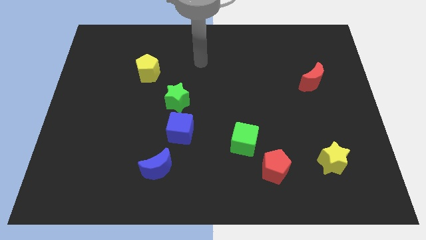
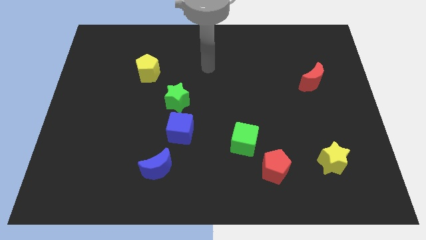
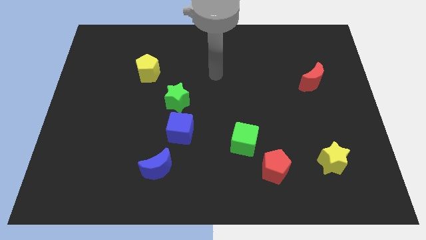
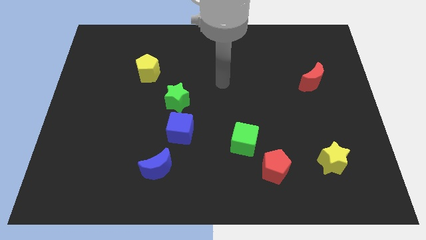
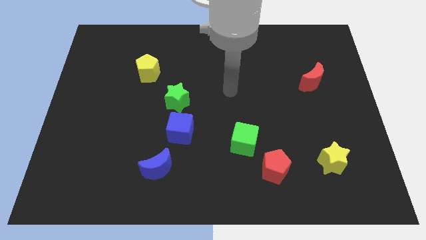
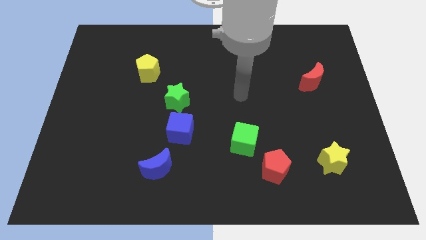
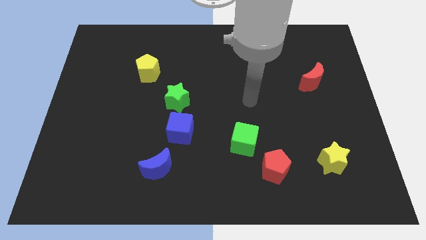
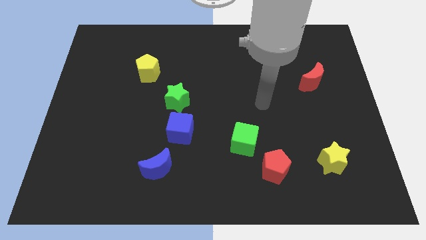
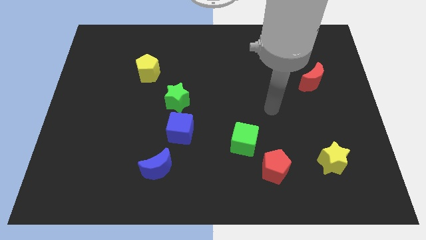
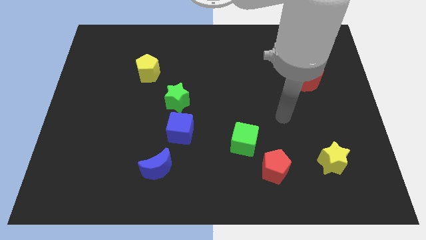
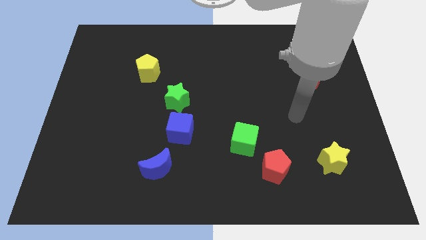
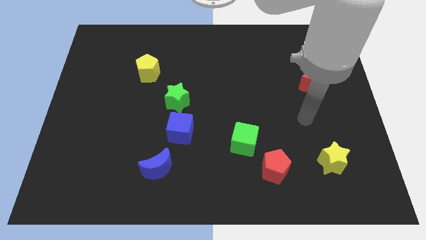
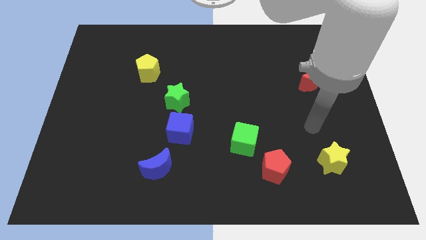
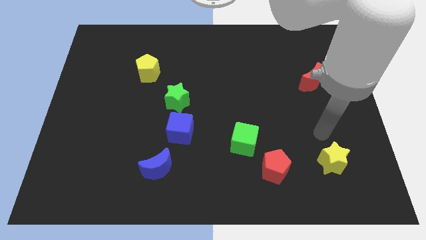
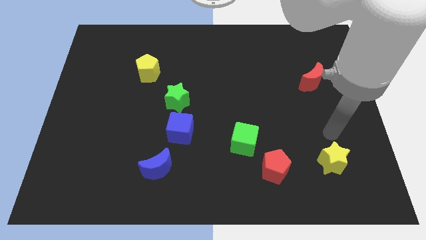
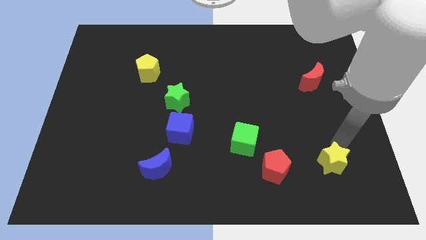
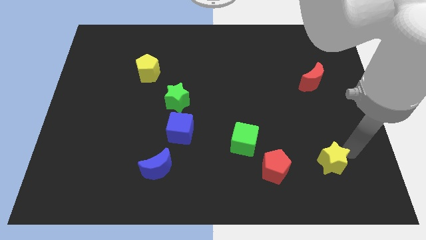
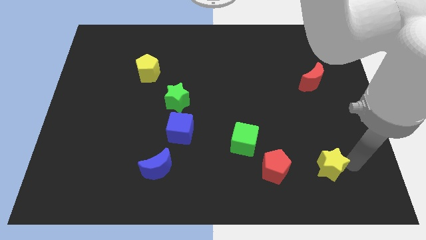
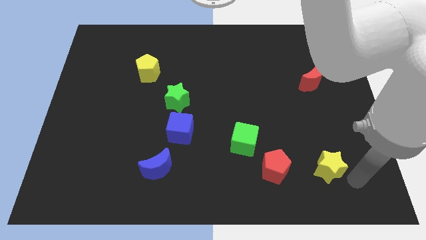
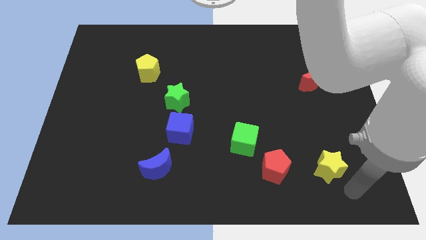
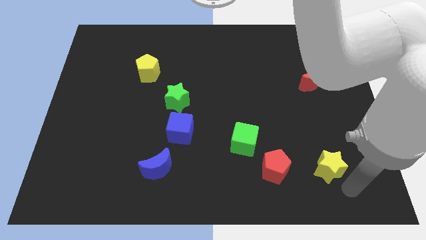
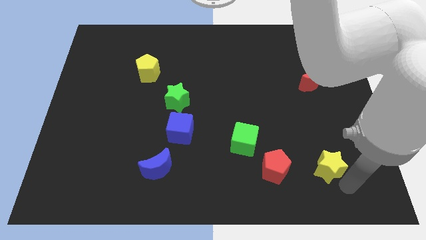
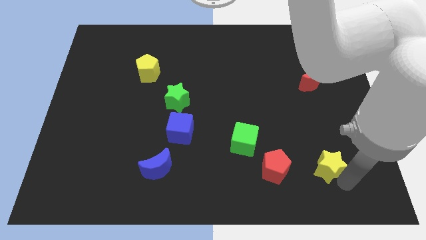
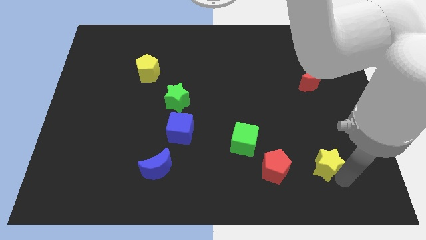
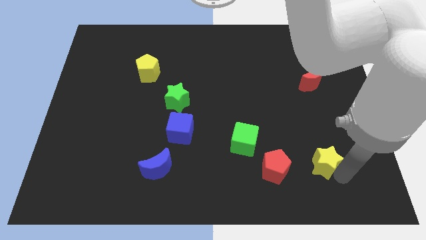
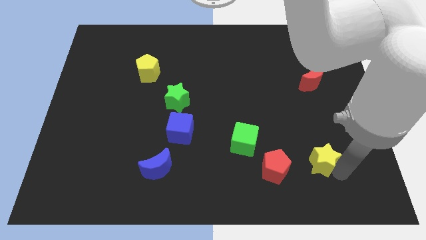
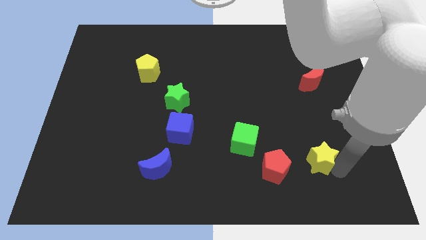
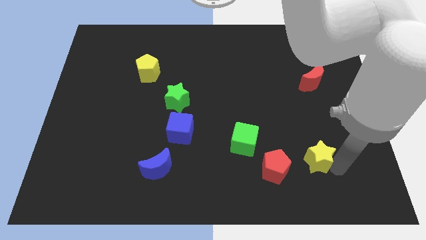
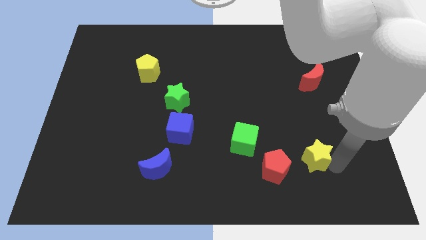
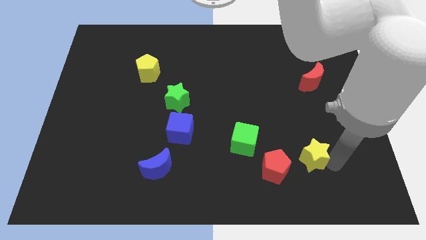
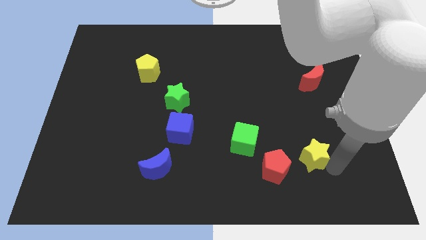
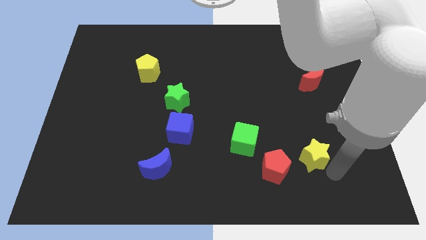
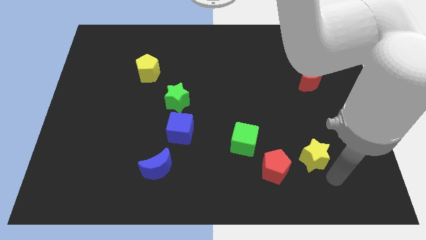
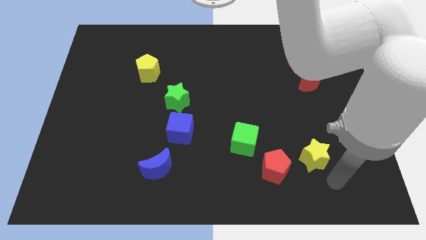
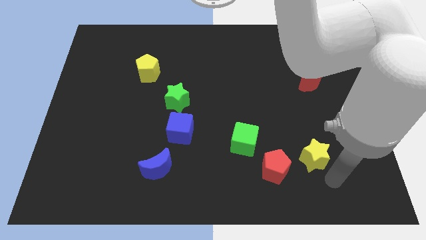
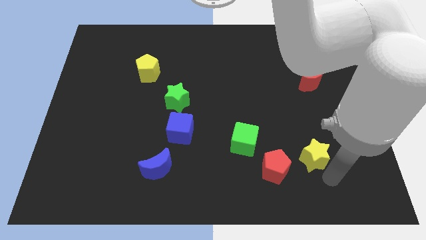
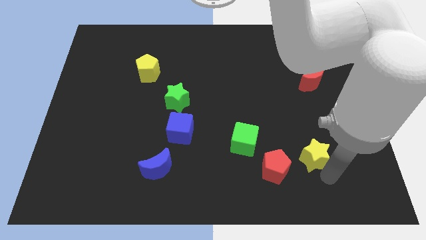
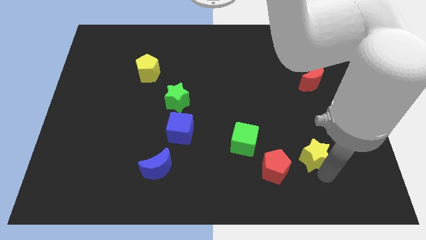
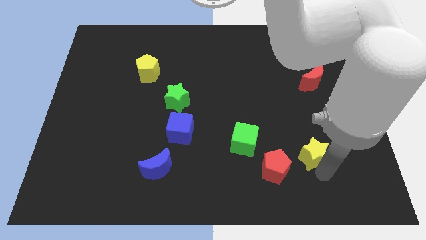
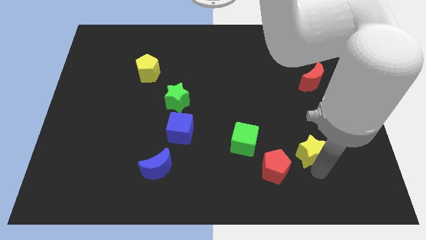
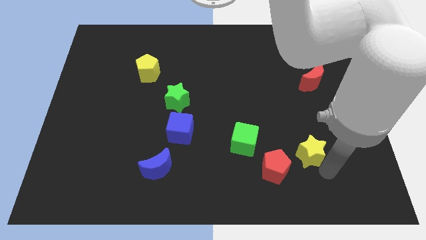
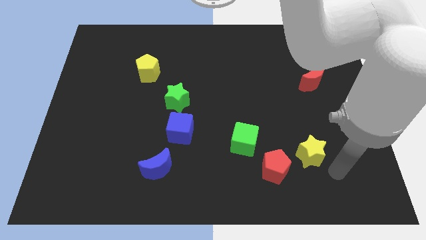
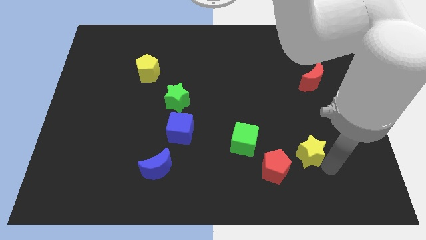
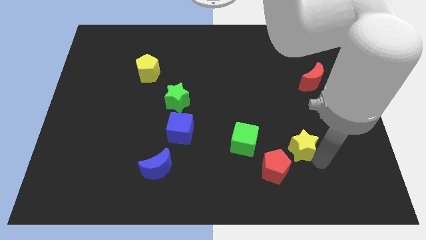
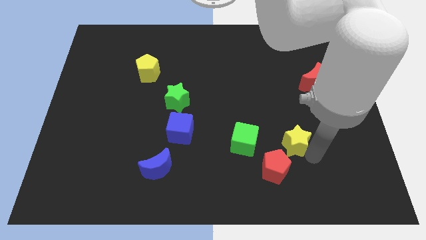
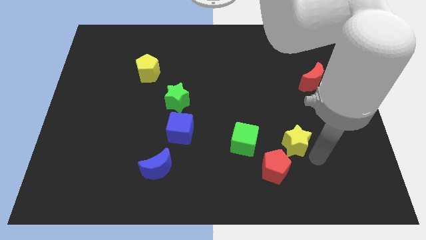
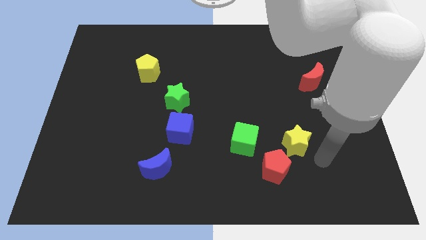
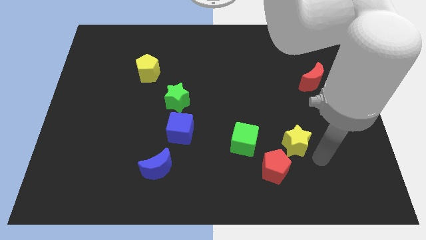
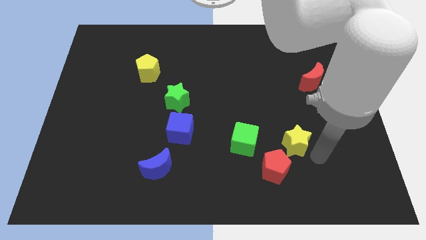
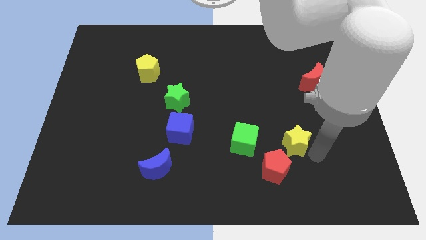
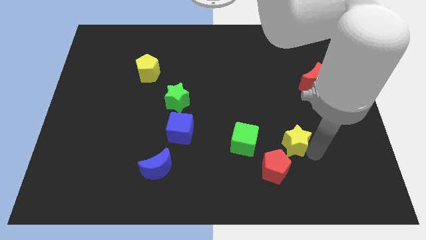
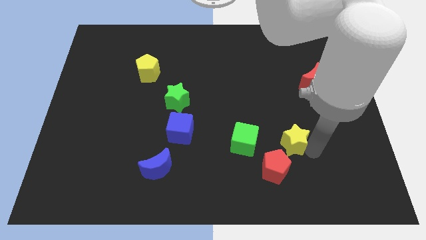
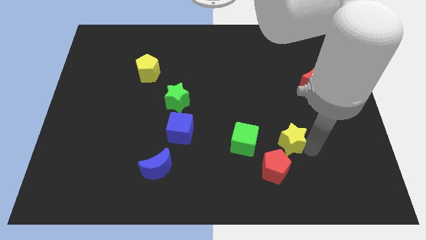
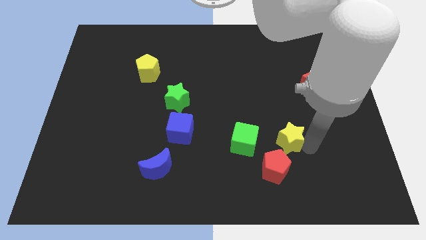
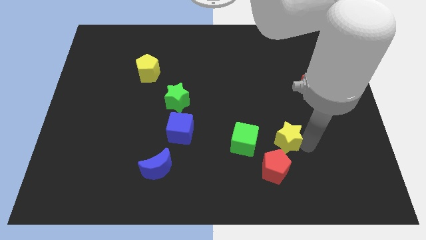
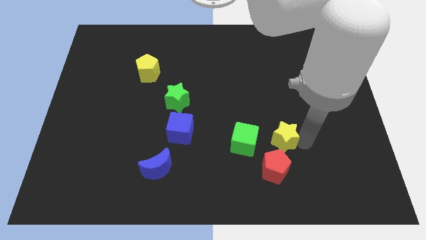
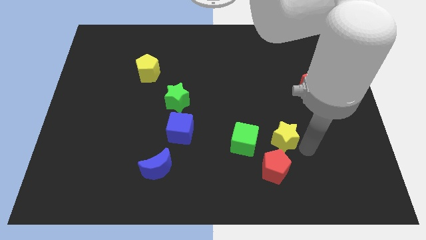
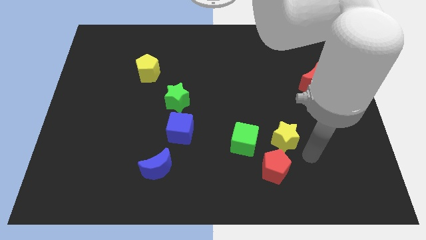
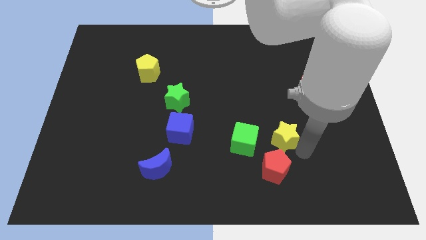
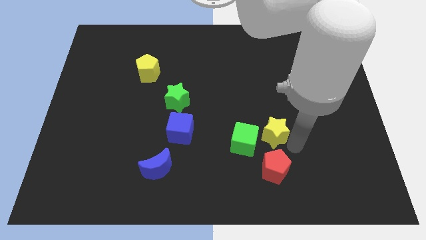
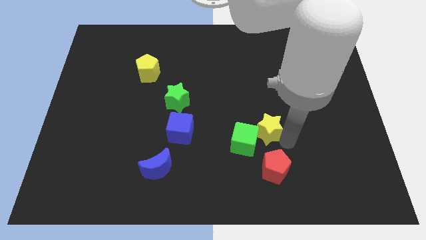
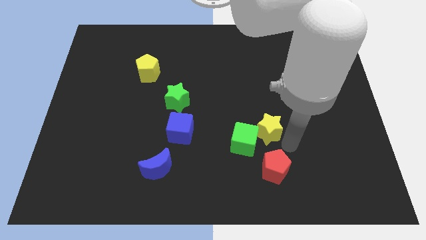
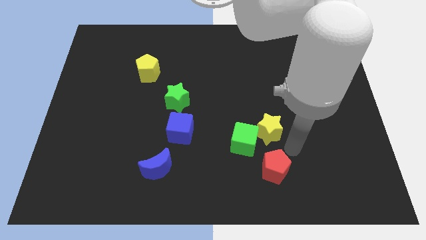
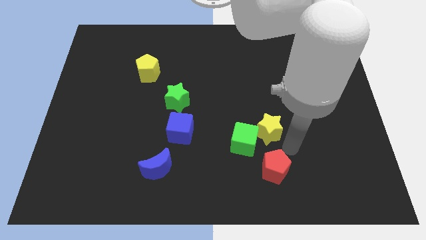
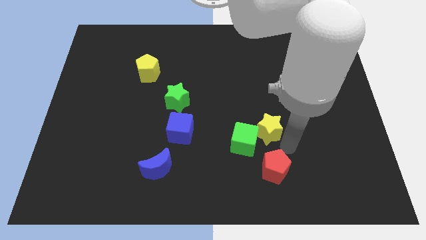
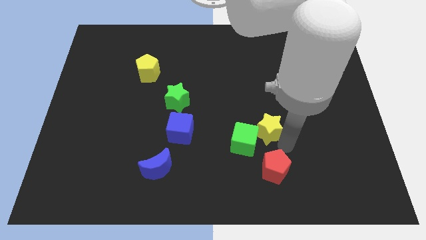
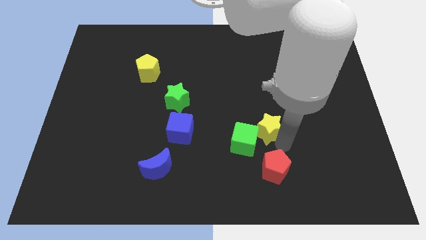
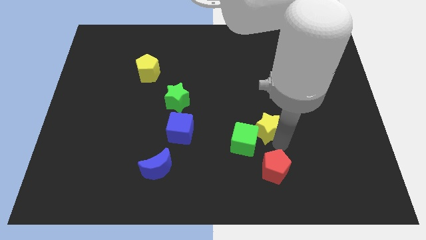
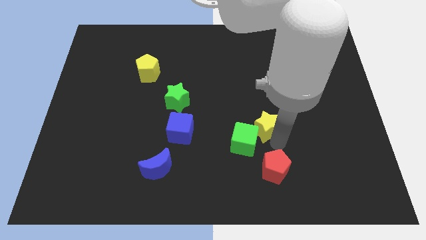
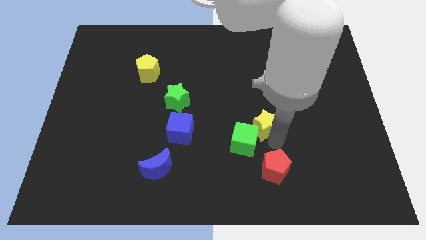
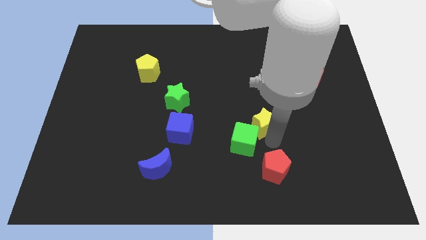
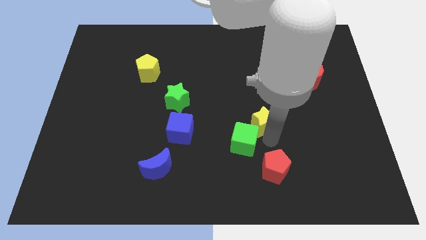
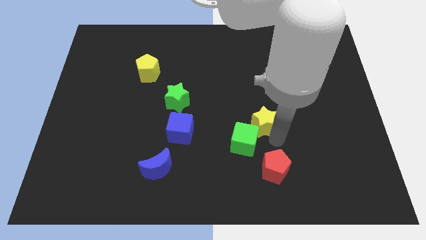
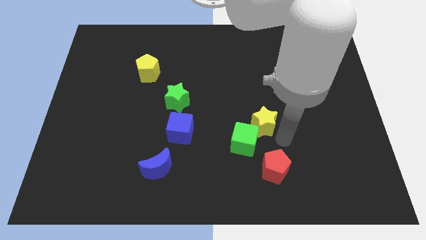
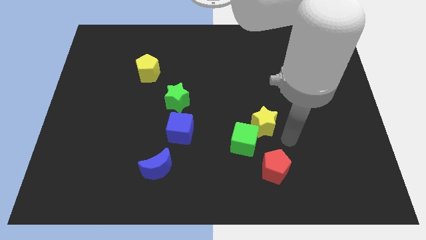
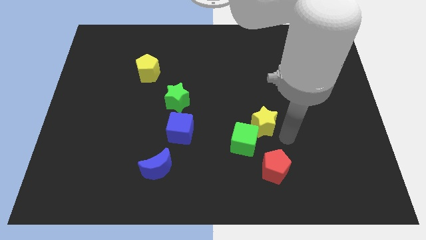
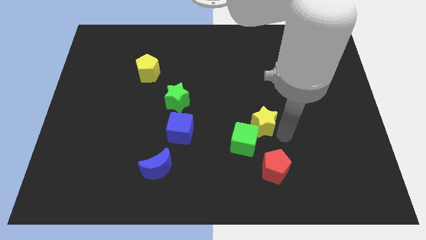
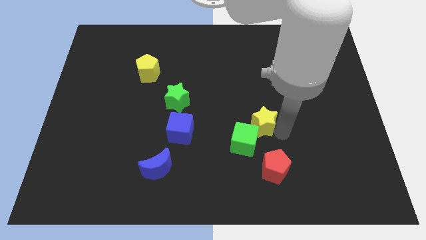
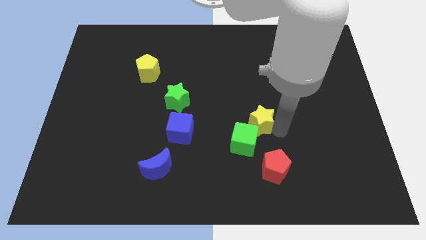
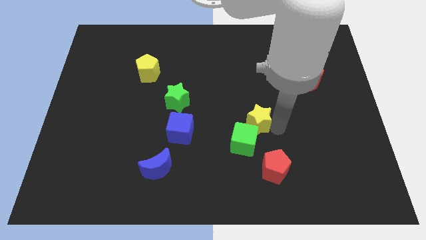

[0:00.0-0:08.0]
put the yellow star to the middle
